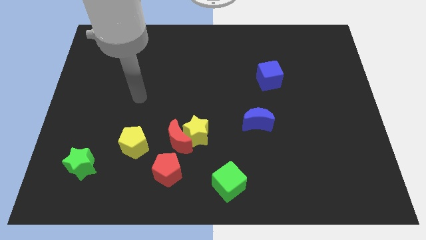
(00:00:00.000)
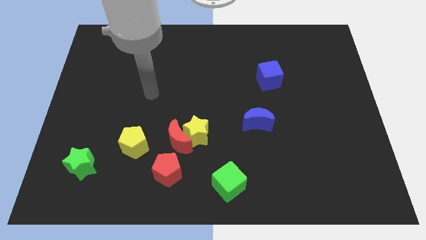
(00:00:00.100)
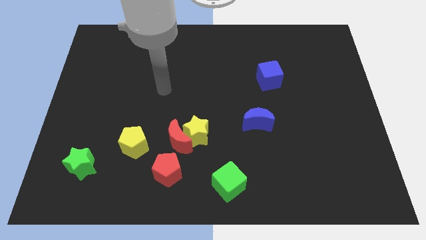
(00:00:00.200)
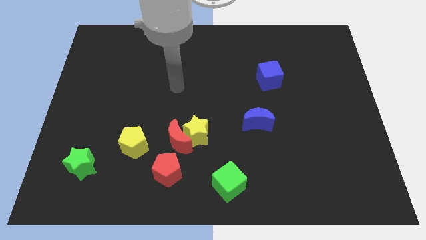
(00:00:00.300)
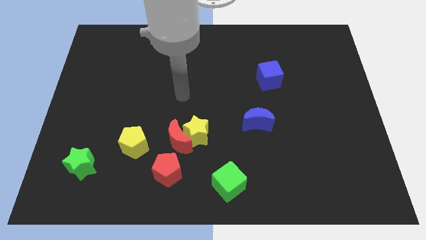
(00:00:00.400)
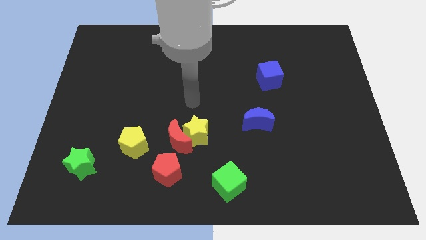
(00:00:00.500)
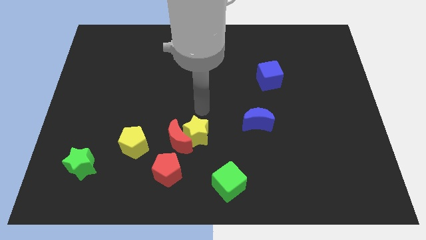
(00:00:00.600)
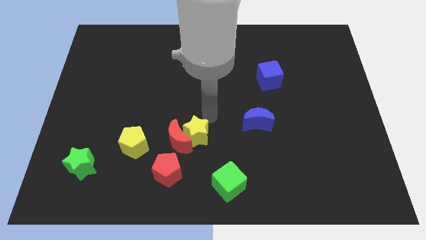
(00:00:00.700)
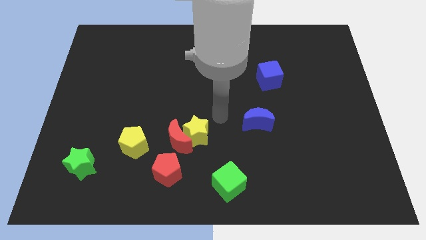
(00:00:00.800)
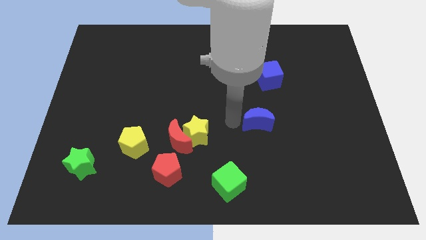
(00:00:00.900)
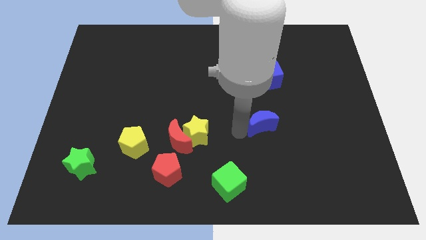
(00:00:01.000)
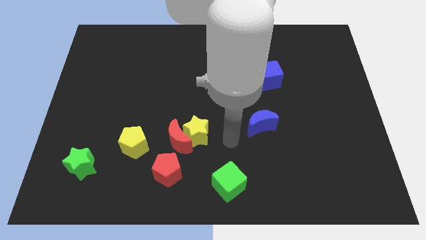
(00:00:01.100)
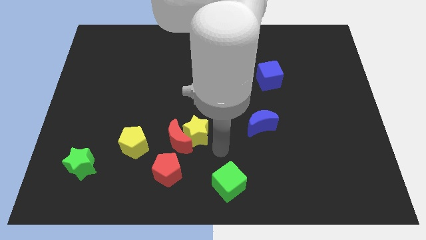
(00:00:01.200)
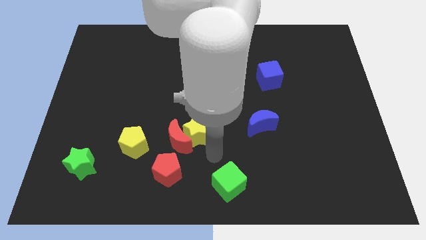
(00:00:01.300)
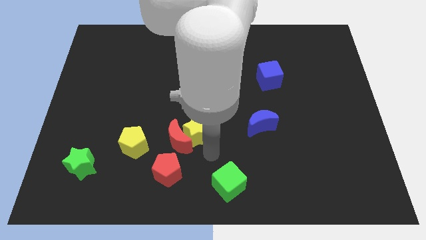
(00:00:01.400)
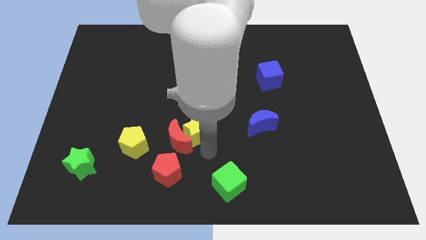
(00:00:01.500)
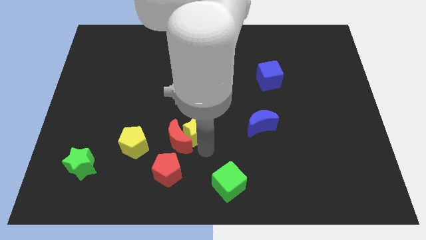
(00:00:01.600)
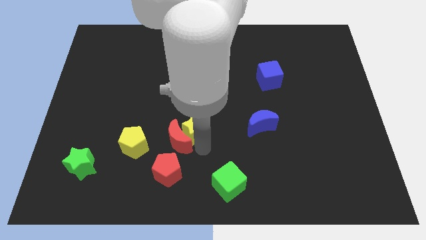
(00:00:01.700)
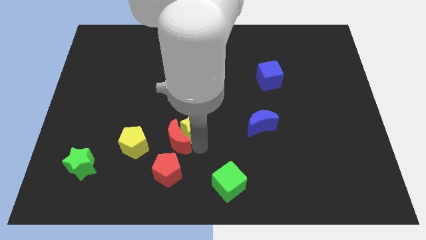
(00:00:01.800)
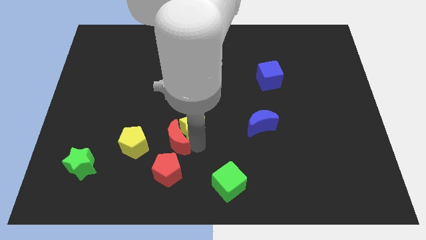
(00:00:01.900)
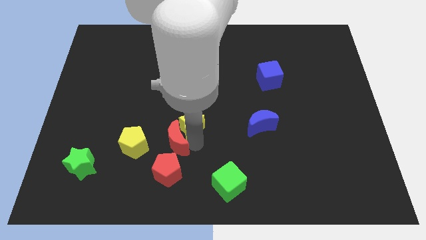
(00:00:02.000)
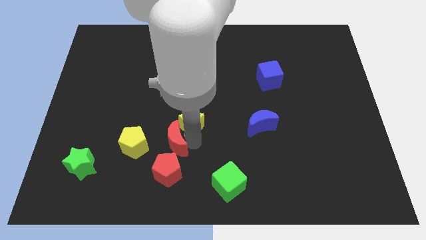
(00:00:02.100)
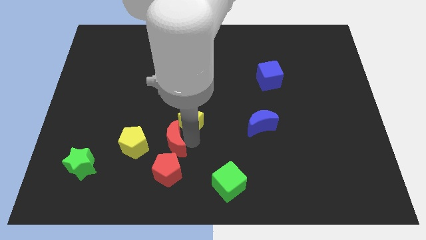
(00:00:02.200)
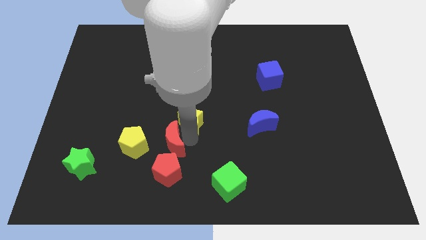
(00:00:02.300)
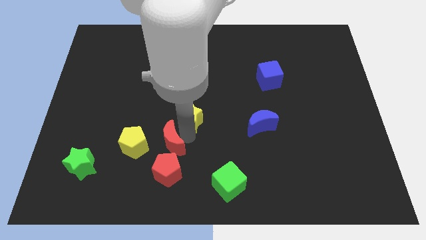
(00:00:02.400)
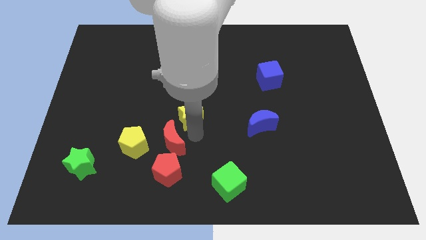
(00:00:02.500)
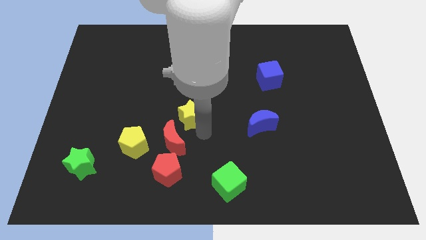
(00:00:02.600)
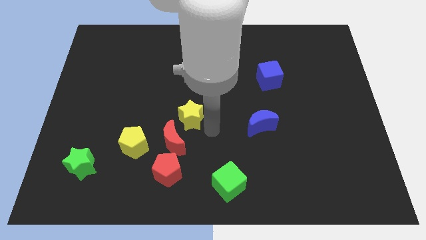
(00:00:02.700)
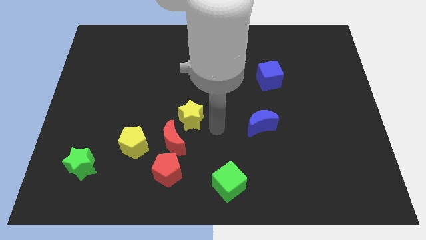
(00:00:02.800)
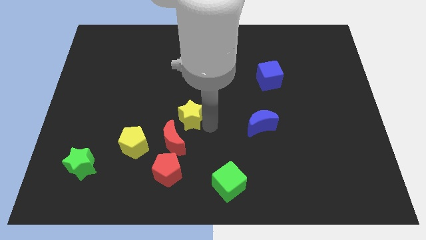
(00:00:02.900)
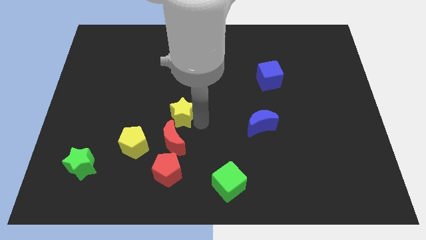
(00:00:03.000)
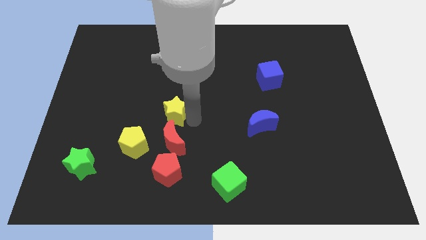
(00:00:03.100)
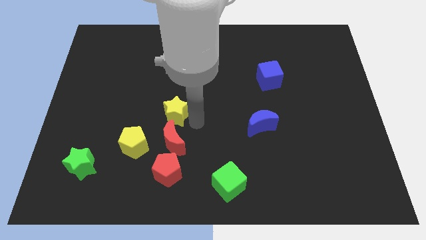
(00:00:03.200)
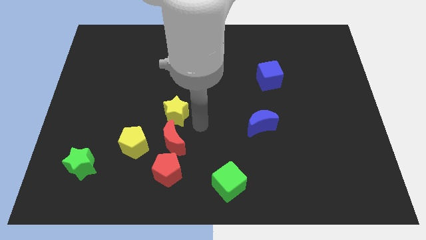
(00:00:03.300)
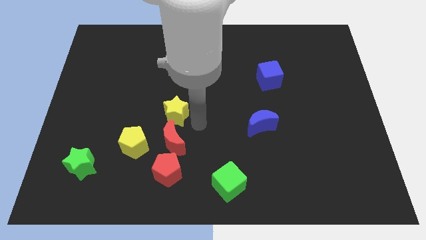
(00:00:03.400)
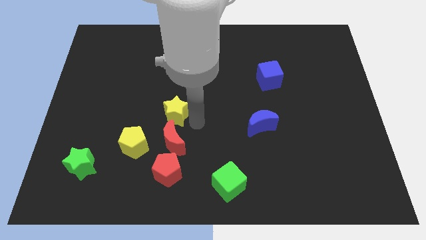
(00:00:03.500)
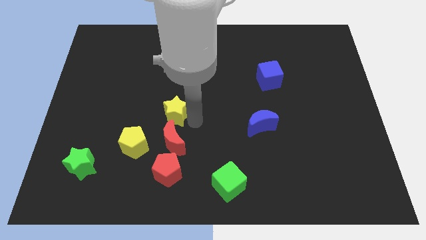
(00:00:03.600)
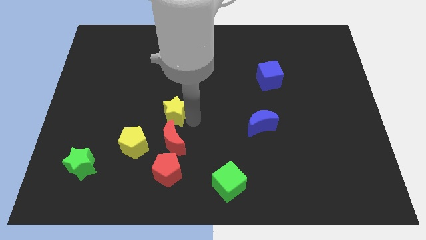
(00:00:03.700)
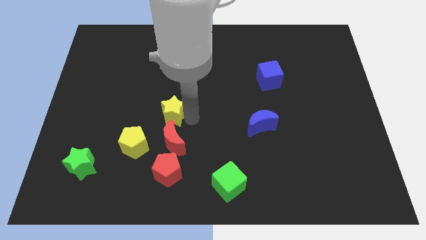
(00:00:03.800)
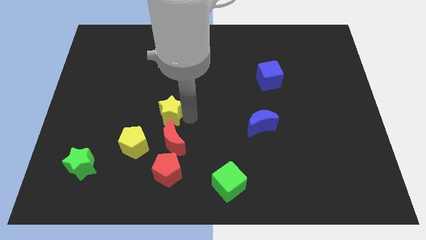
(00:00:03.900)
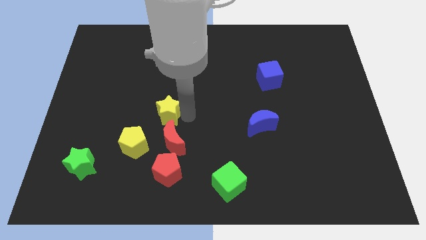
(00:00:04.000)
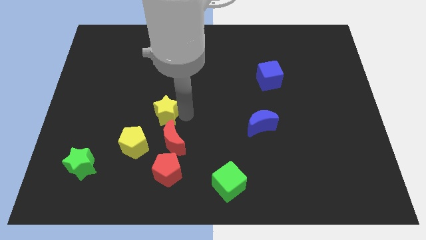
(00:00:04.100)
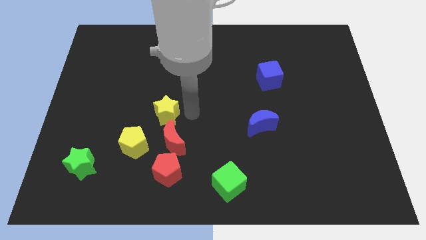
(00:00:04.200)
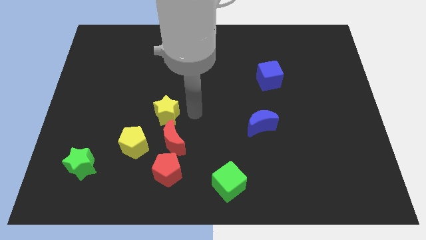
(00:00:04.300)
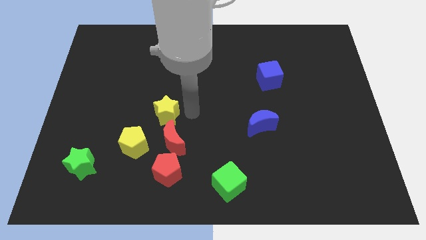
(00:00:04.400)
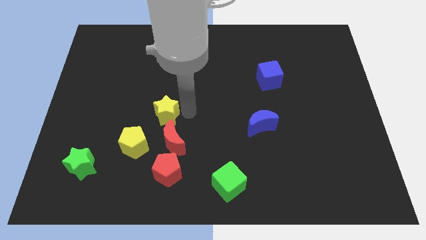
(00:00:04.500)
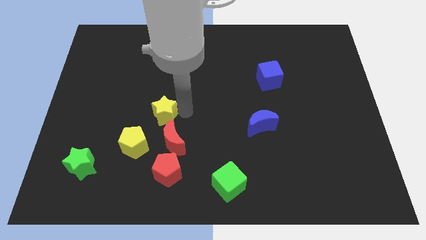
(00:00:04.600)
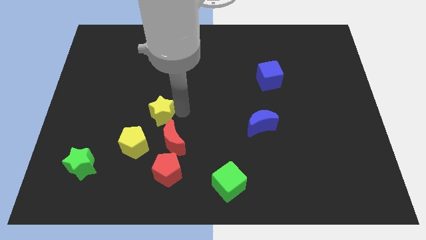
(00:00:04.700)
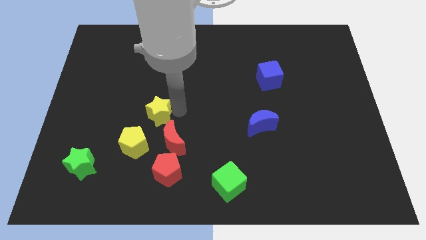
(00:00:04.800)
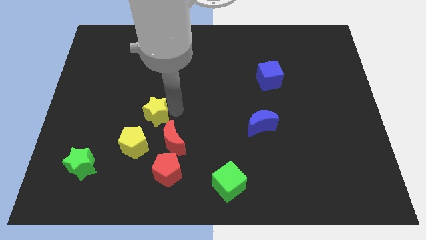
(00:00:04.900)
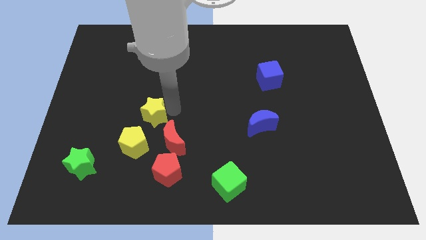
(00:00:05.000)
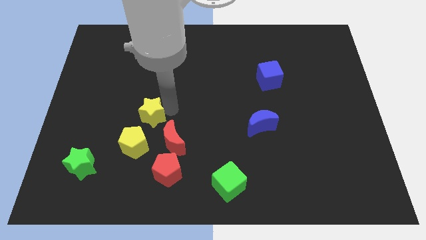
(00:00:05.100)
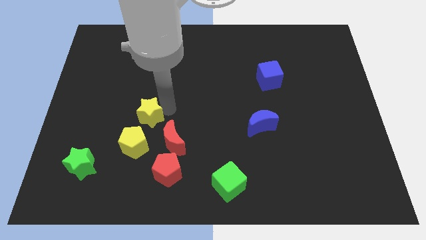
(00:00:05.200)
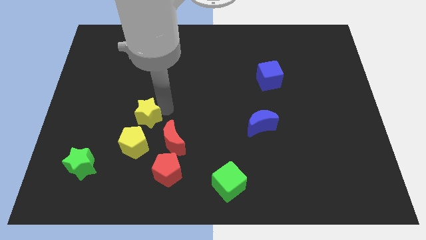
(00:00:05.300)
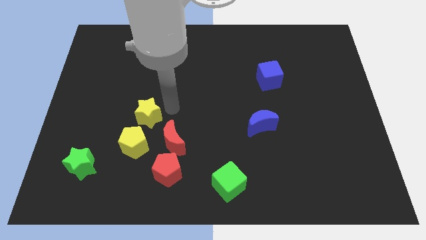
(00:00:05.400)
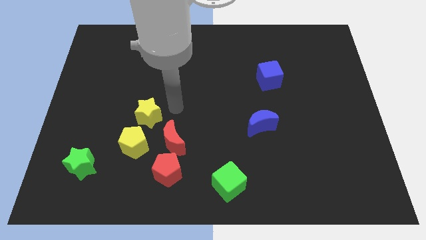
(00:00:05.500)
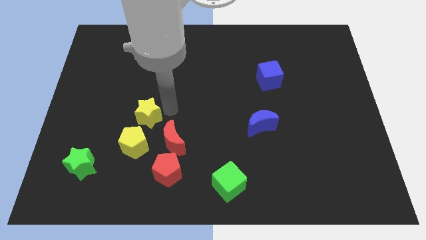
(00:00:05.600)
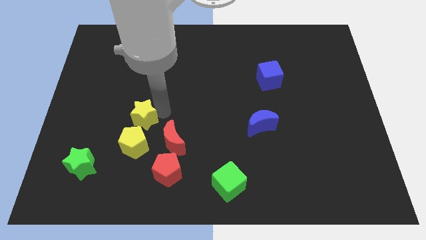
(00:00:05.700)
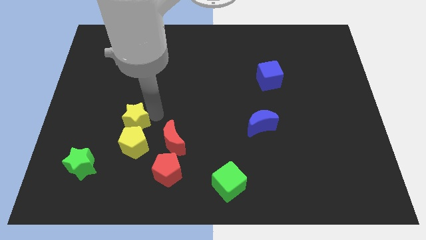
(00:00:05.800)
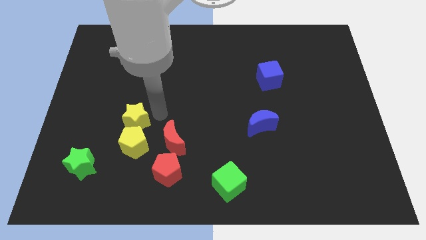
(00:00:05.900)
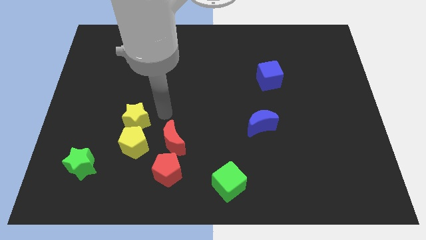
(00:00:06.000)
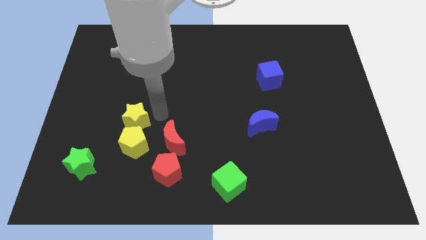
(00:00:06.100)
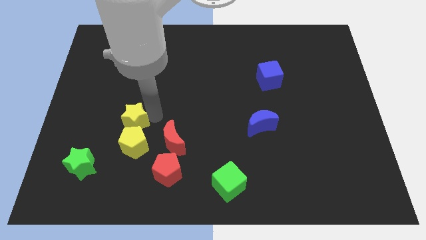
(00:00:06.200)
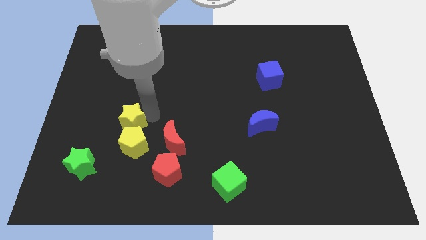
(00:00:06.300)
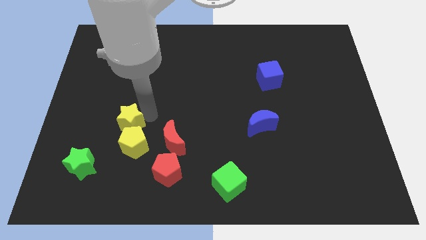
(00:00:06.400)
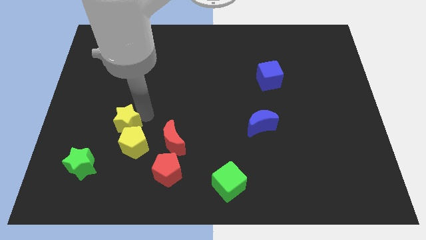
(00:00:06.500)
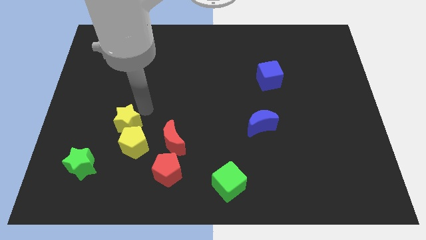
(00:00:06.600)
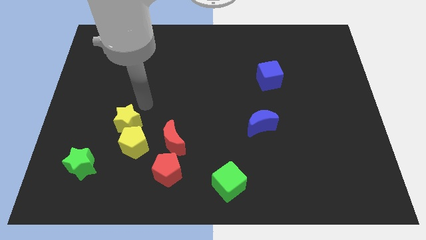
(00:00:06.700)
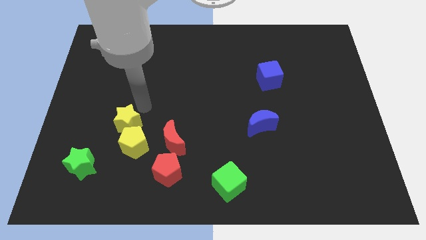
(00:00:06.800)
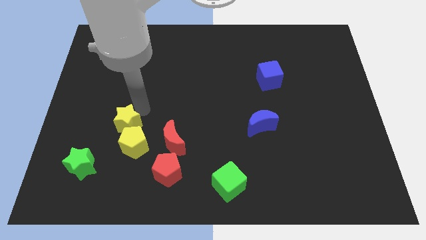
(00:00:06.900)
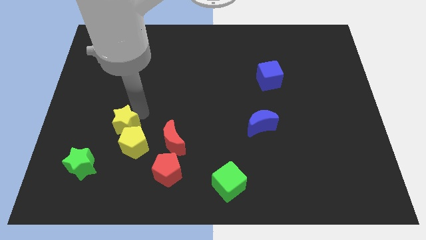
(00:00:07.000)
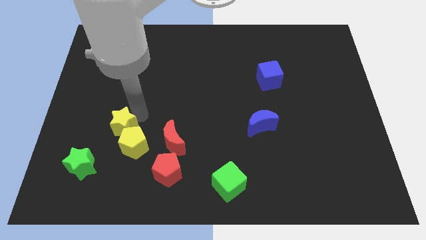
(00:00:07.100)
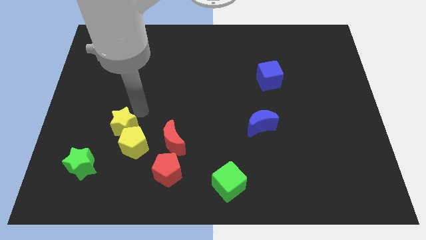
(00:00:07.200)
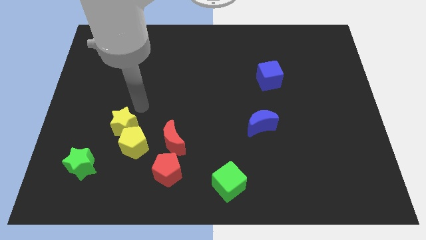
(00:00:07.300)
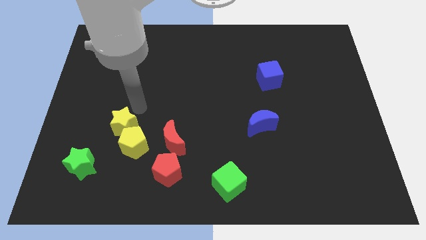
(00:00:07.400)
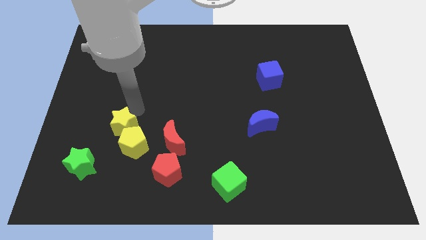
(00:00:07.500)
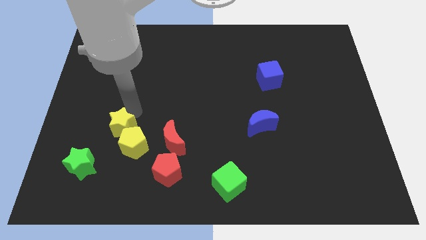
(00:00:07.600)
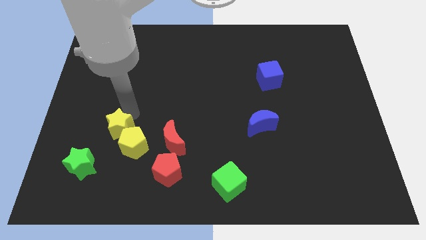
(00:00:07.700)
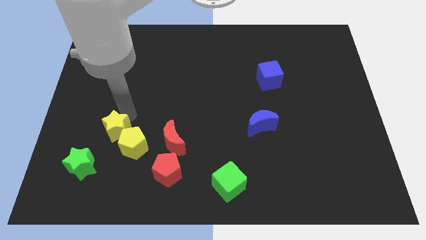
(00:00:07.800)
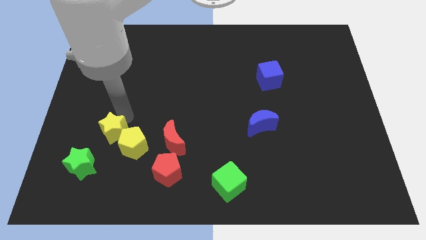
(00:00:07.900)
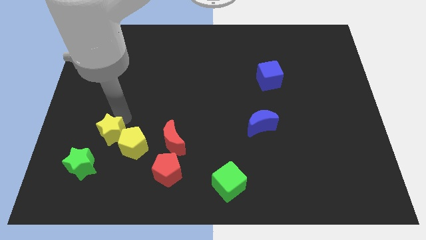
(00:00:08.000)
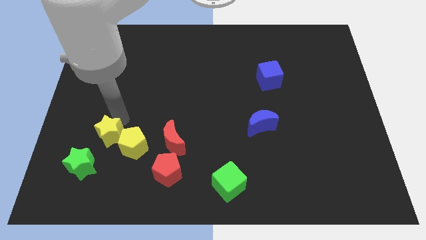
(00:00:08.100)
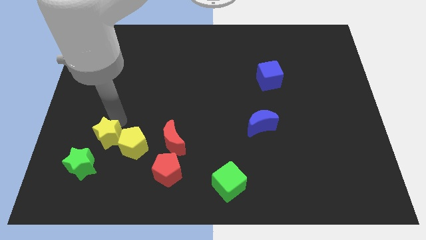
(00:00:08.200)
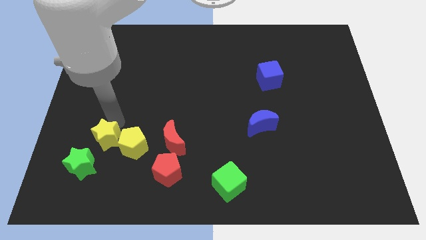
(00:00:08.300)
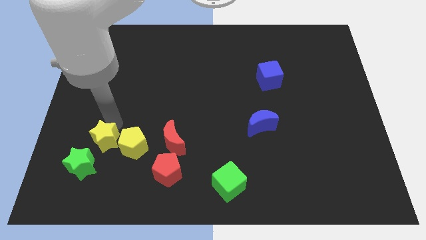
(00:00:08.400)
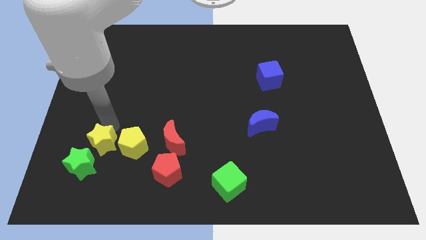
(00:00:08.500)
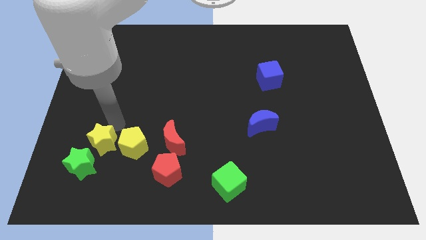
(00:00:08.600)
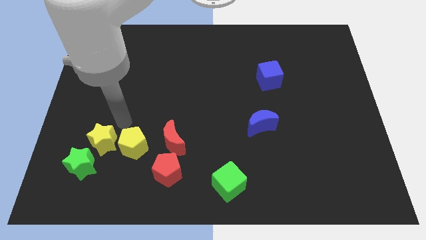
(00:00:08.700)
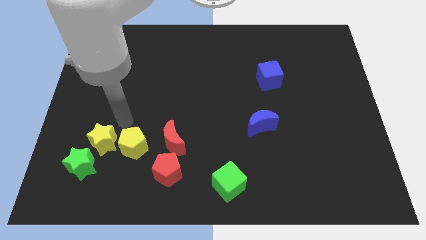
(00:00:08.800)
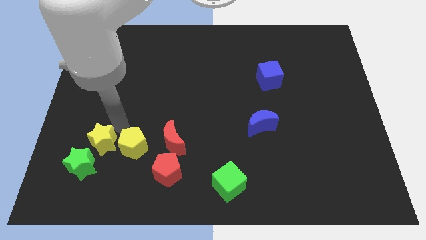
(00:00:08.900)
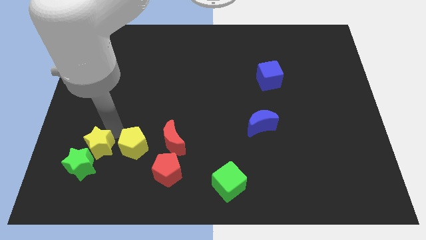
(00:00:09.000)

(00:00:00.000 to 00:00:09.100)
move the yellow star towards the green star
